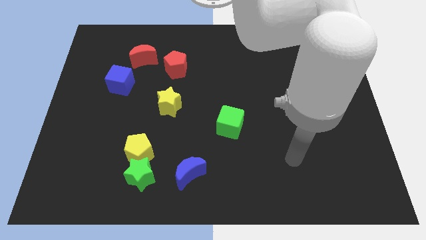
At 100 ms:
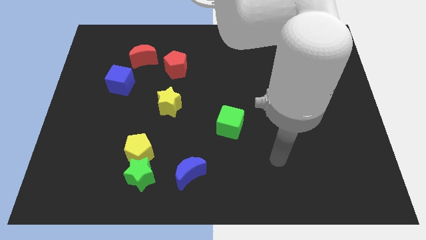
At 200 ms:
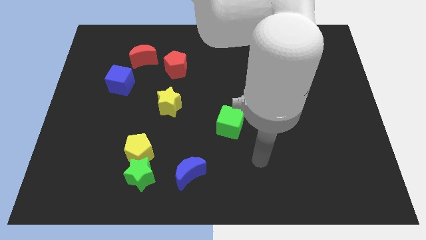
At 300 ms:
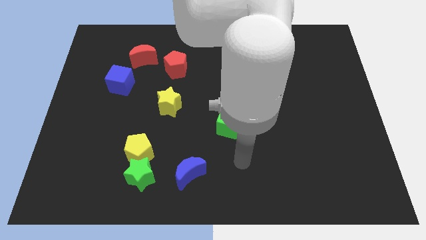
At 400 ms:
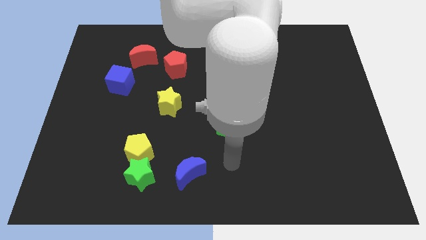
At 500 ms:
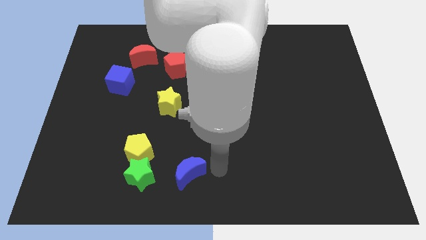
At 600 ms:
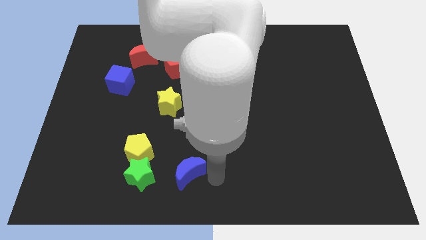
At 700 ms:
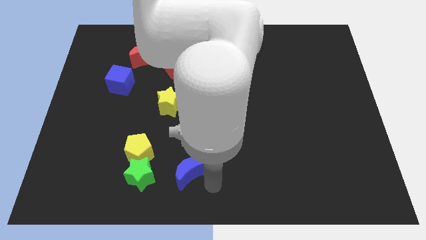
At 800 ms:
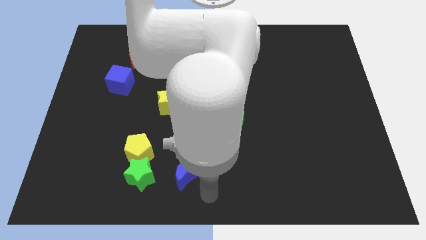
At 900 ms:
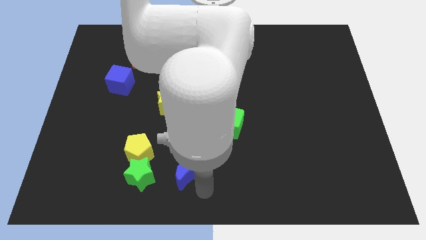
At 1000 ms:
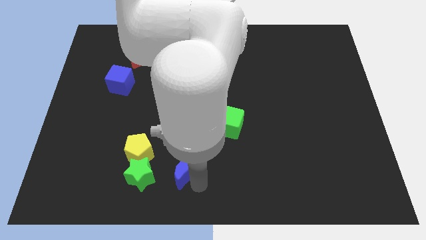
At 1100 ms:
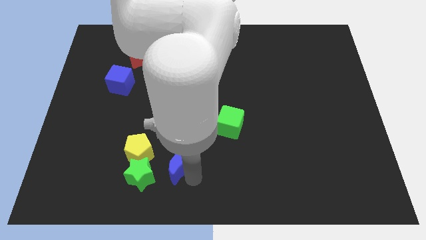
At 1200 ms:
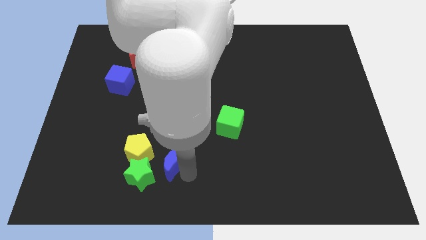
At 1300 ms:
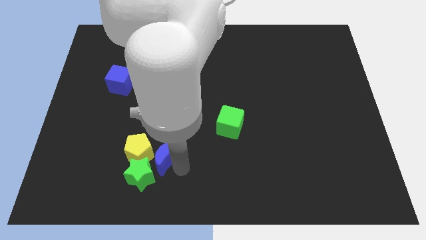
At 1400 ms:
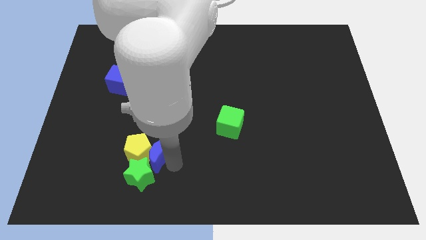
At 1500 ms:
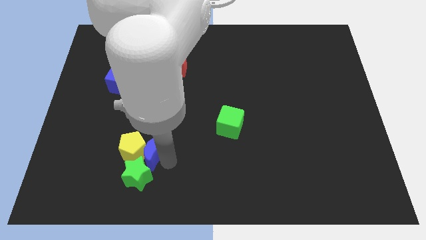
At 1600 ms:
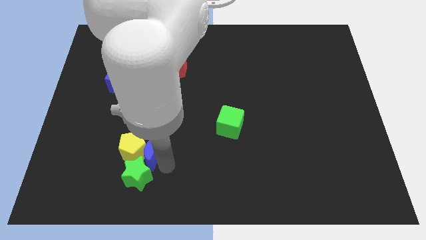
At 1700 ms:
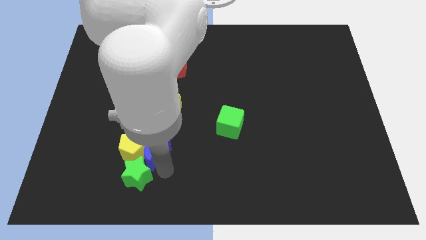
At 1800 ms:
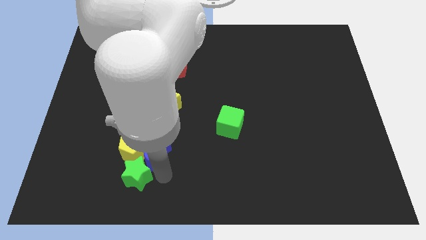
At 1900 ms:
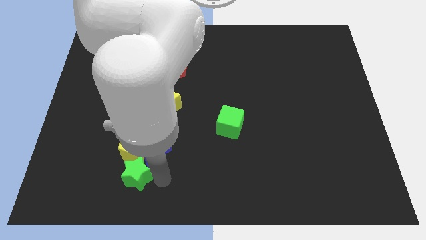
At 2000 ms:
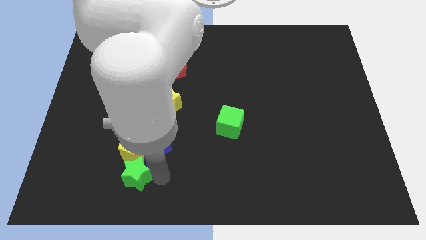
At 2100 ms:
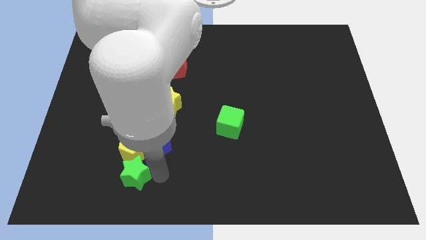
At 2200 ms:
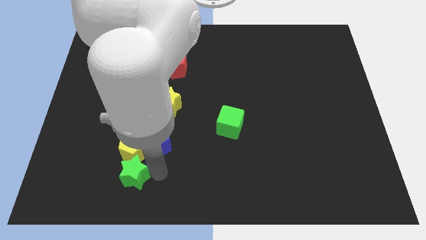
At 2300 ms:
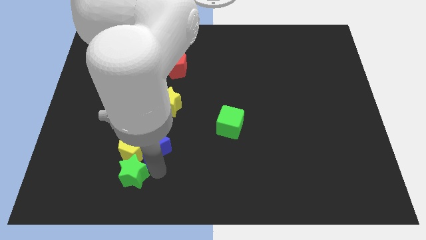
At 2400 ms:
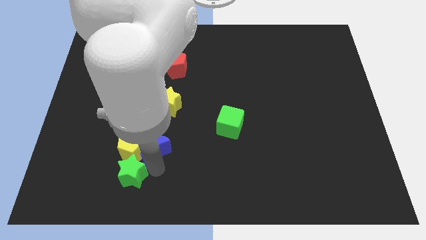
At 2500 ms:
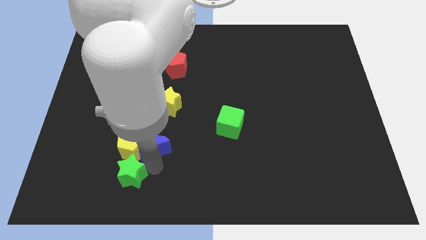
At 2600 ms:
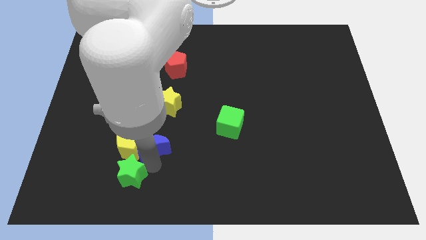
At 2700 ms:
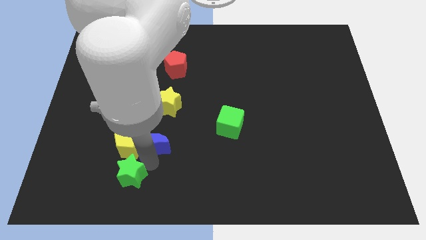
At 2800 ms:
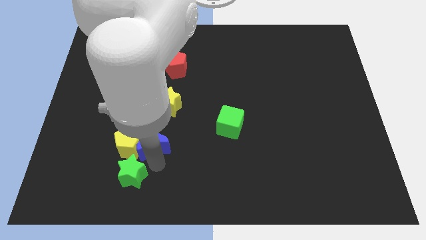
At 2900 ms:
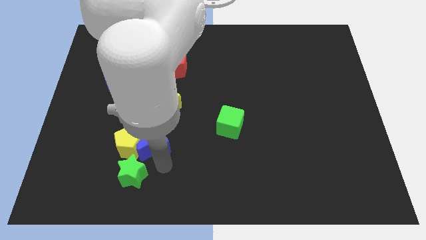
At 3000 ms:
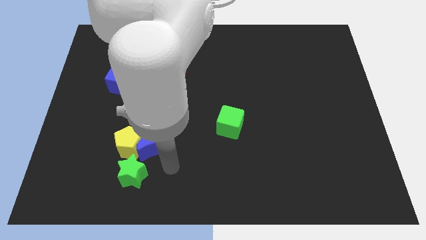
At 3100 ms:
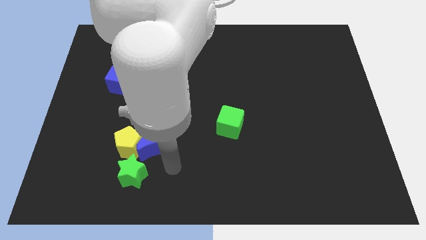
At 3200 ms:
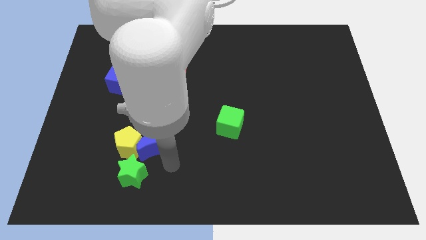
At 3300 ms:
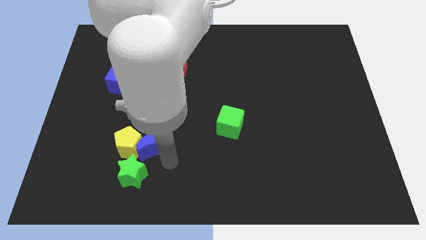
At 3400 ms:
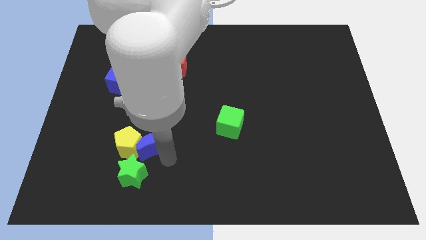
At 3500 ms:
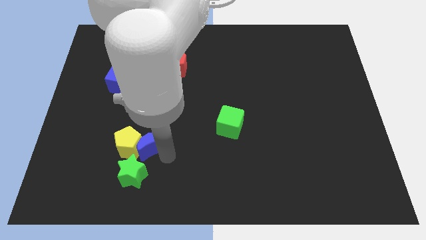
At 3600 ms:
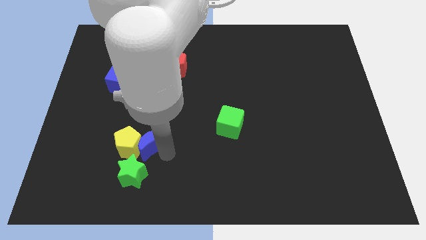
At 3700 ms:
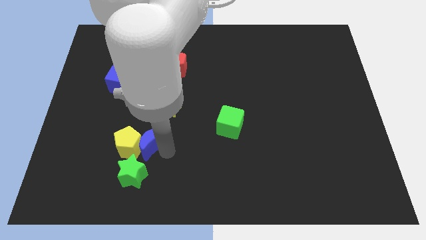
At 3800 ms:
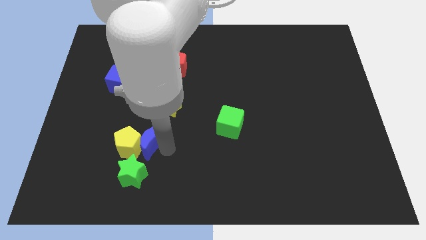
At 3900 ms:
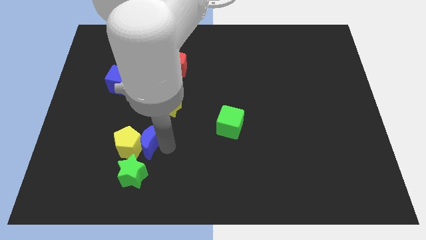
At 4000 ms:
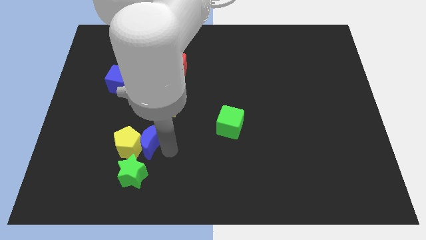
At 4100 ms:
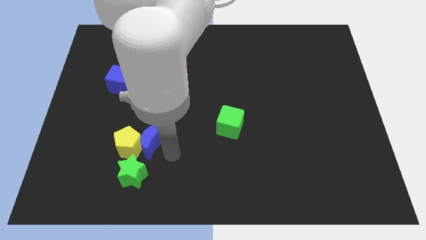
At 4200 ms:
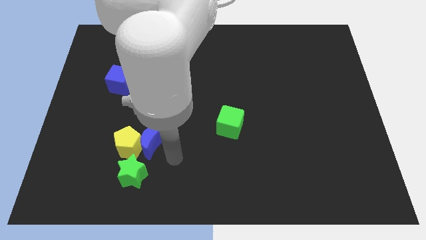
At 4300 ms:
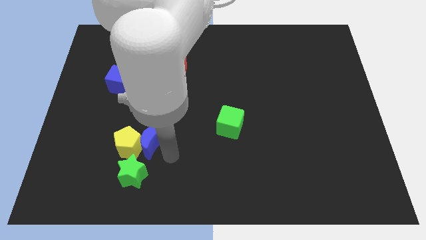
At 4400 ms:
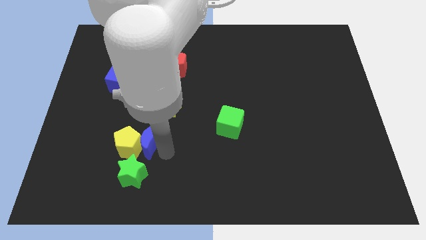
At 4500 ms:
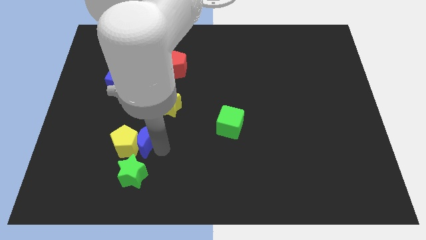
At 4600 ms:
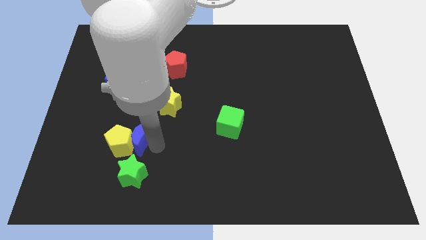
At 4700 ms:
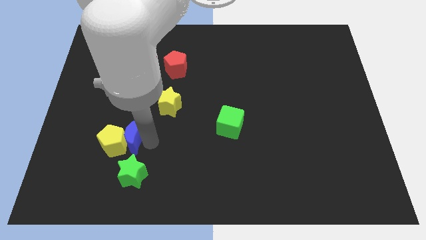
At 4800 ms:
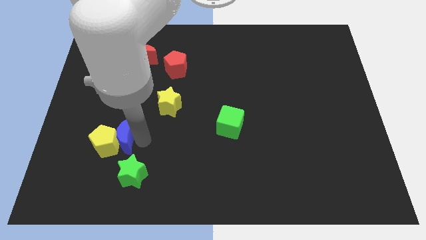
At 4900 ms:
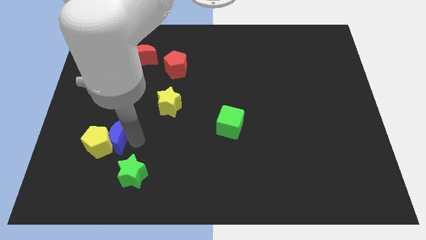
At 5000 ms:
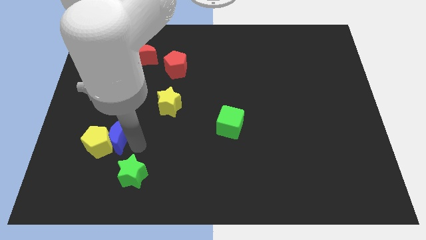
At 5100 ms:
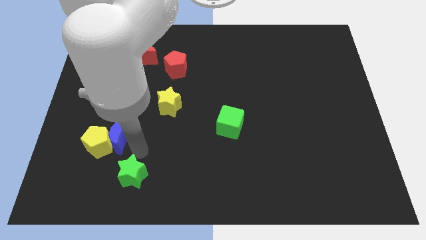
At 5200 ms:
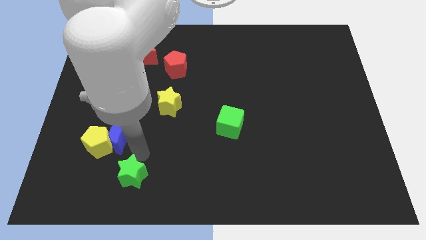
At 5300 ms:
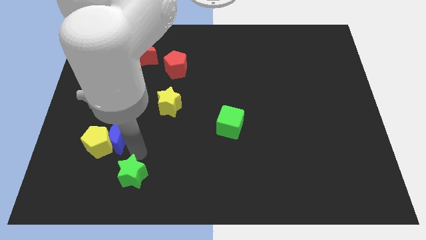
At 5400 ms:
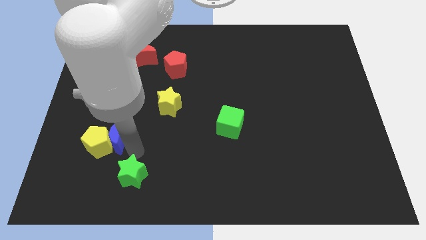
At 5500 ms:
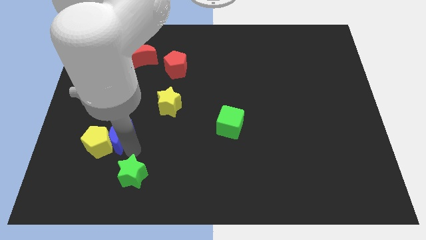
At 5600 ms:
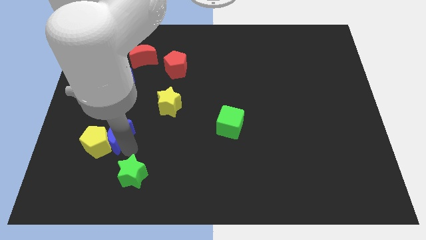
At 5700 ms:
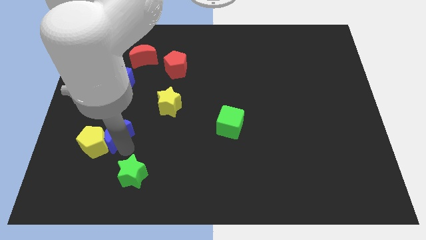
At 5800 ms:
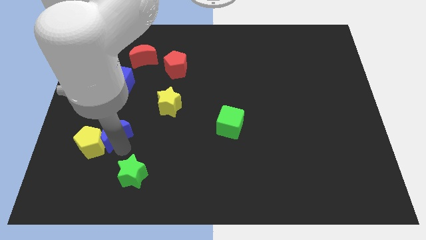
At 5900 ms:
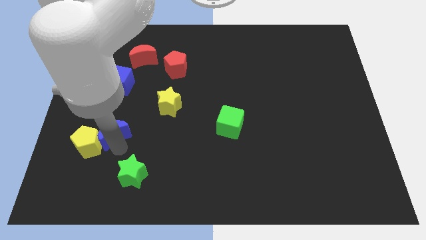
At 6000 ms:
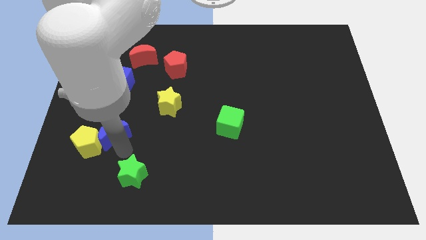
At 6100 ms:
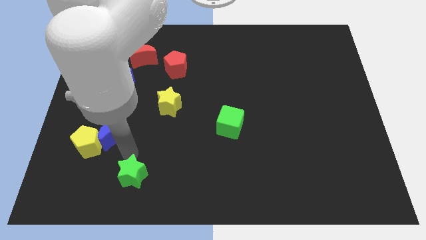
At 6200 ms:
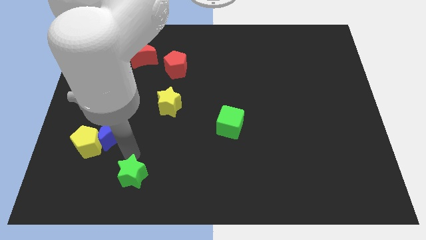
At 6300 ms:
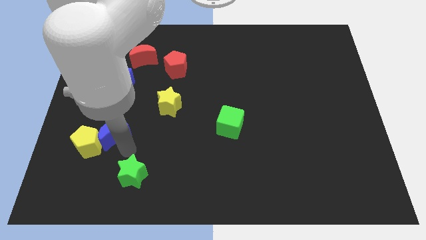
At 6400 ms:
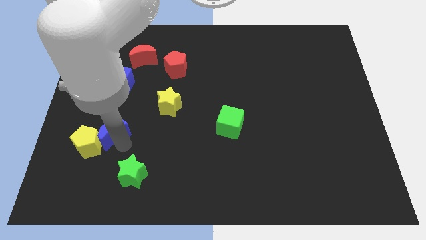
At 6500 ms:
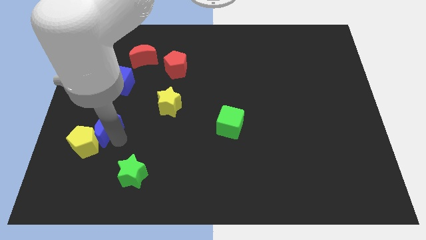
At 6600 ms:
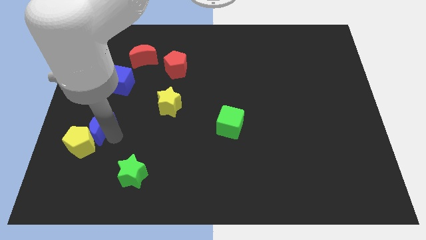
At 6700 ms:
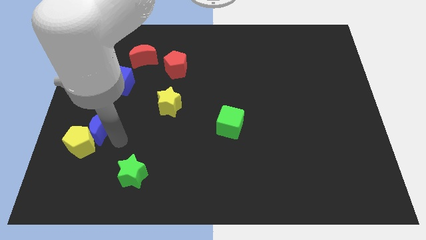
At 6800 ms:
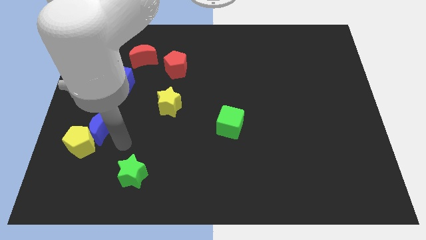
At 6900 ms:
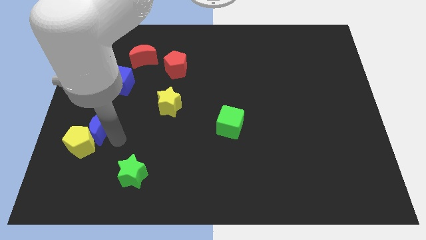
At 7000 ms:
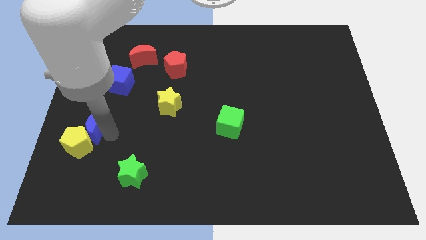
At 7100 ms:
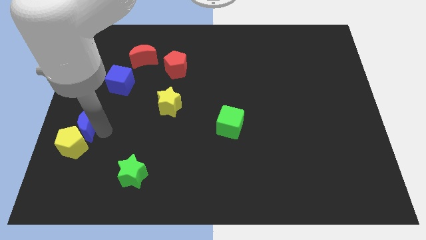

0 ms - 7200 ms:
move the blue moon to the center left
